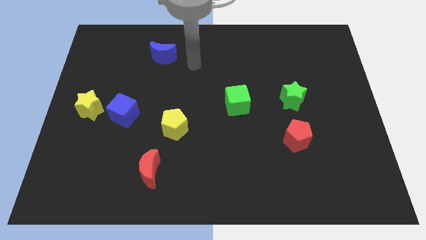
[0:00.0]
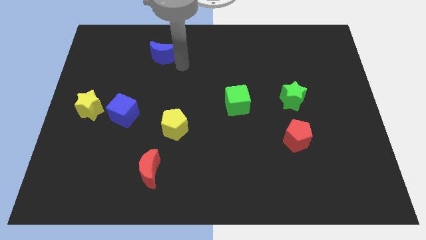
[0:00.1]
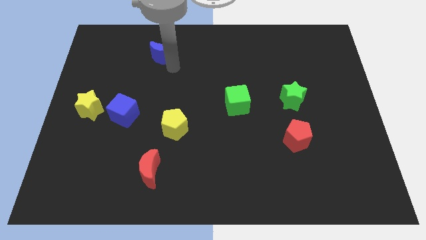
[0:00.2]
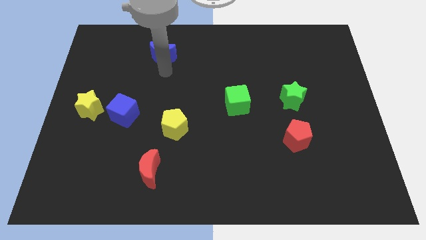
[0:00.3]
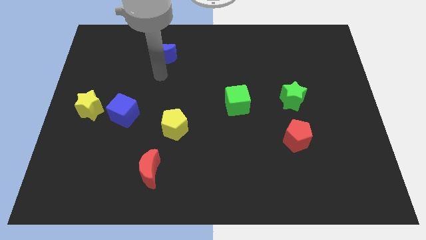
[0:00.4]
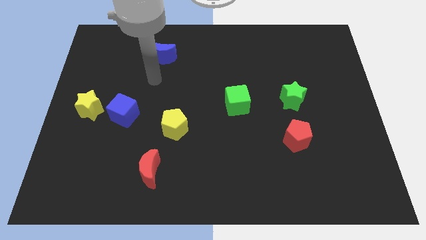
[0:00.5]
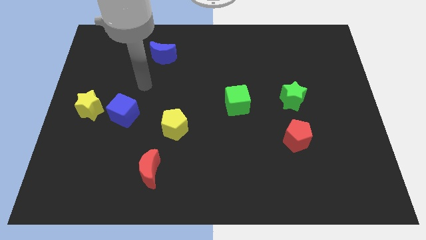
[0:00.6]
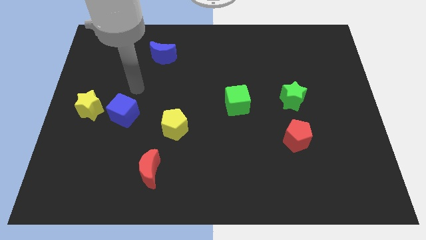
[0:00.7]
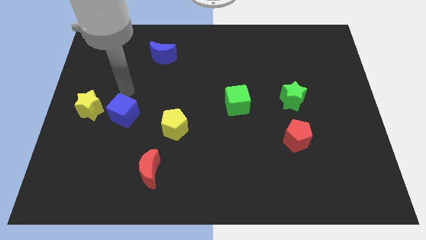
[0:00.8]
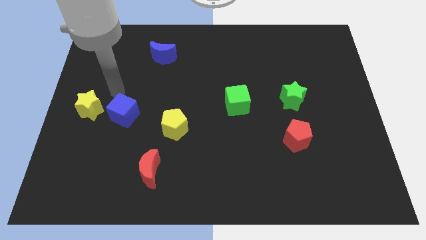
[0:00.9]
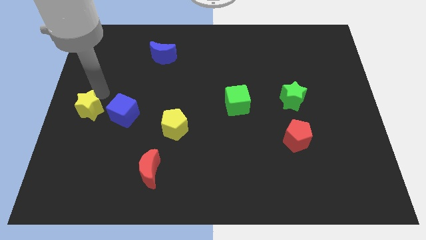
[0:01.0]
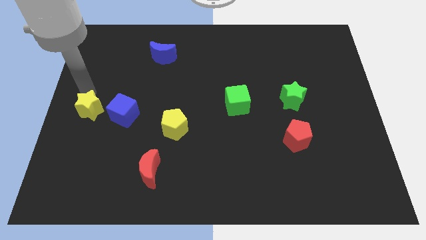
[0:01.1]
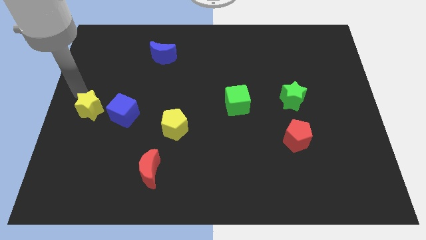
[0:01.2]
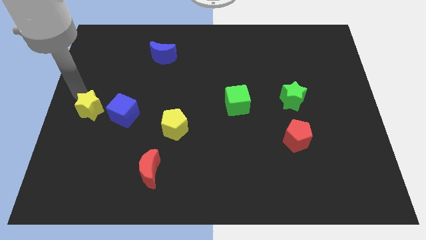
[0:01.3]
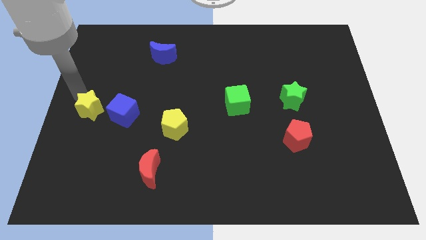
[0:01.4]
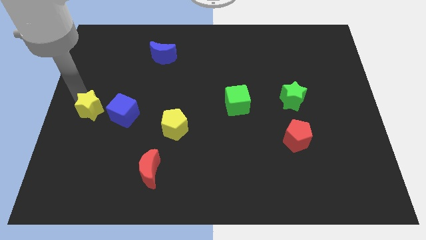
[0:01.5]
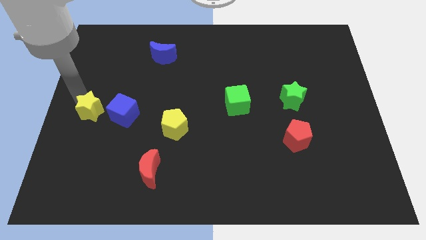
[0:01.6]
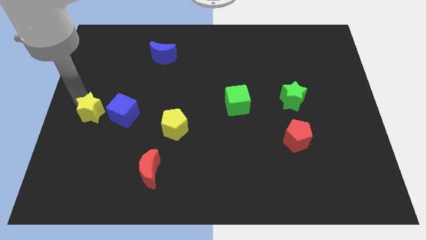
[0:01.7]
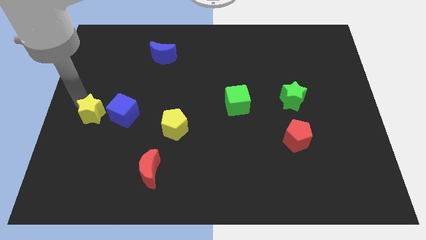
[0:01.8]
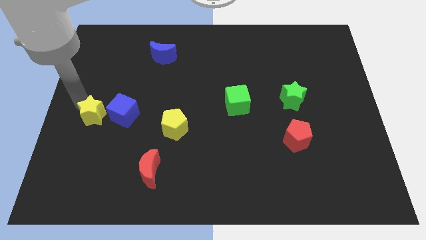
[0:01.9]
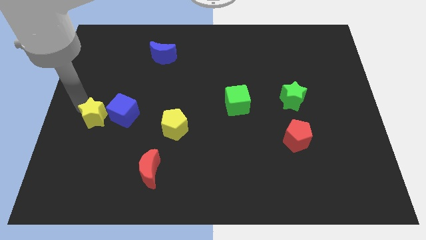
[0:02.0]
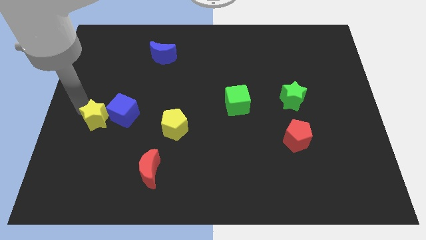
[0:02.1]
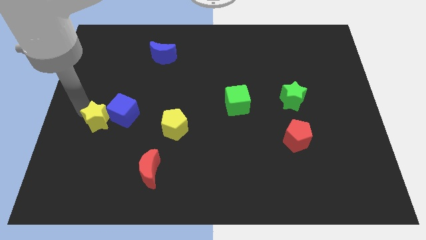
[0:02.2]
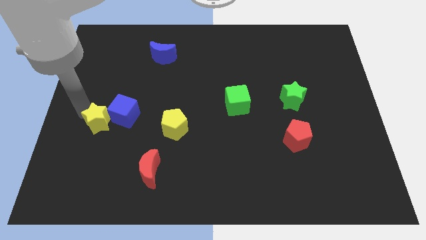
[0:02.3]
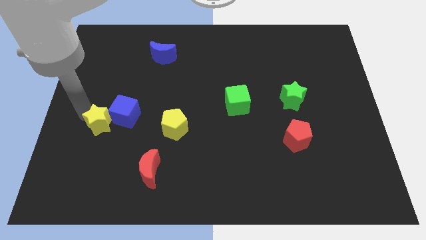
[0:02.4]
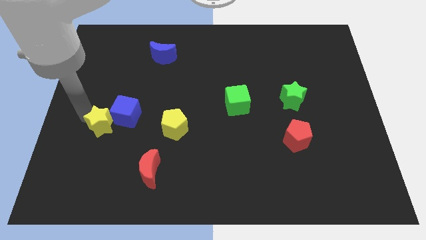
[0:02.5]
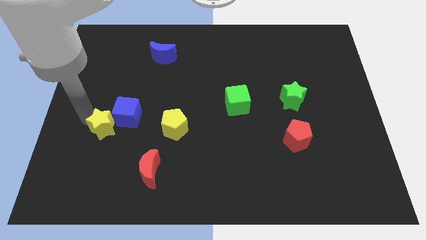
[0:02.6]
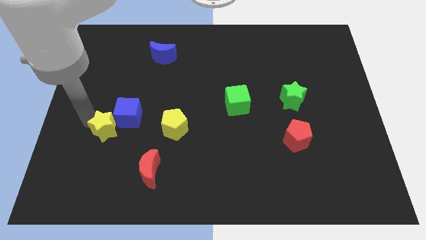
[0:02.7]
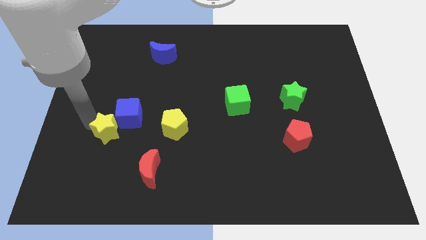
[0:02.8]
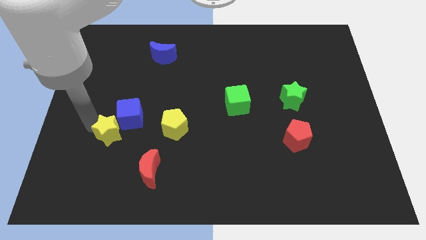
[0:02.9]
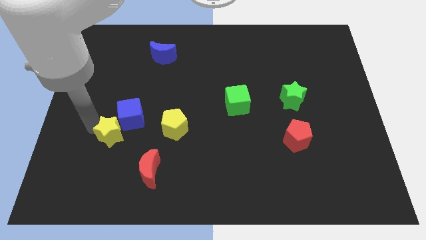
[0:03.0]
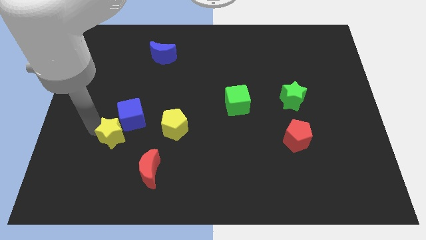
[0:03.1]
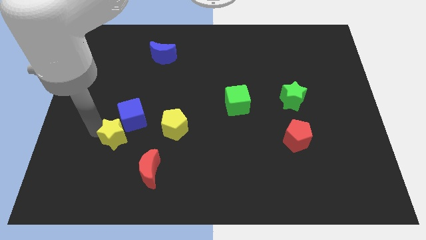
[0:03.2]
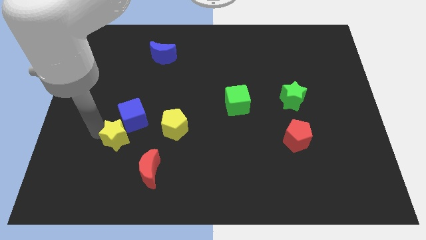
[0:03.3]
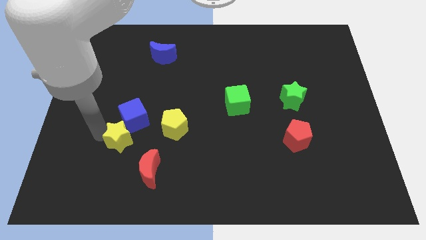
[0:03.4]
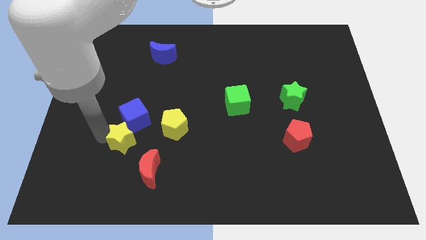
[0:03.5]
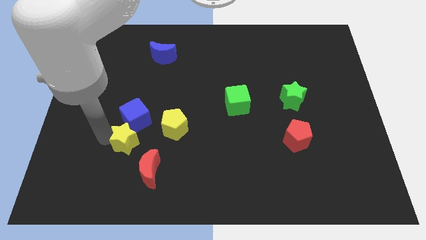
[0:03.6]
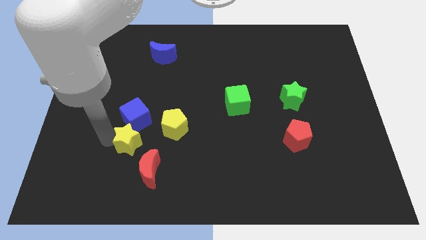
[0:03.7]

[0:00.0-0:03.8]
put the yellow star to the bottom left side of the yellow pentagon

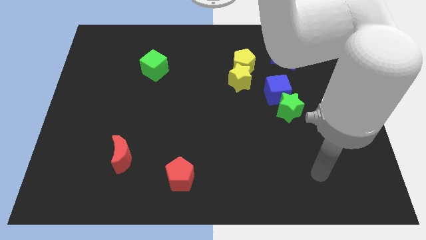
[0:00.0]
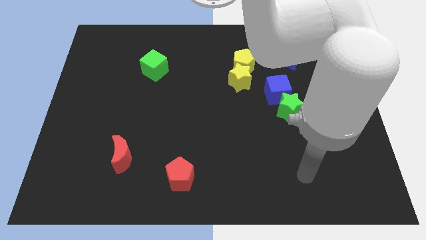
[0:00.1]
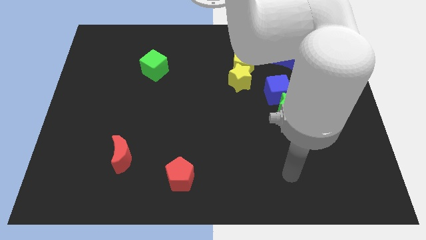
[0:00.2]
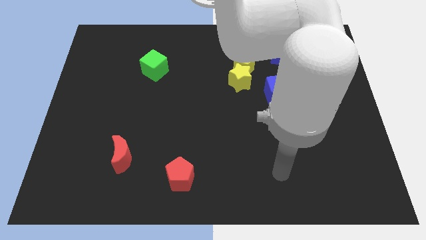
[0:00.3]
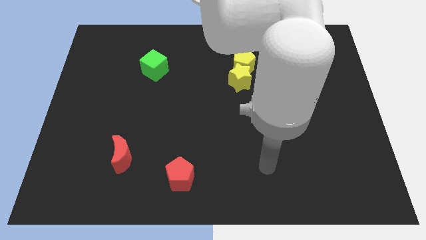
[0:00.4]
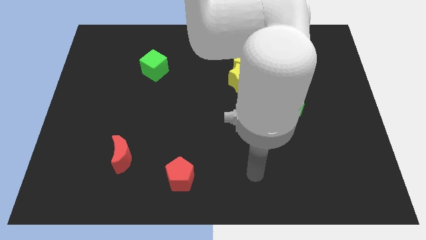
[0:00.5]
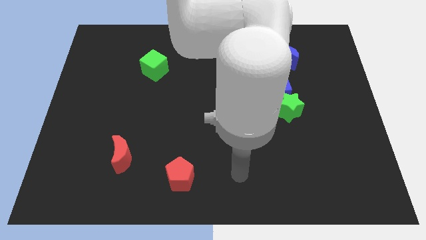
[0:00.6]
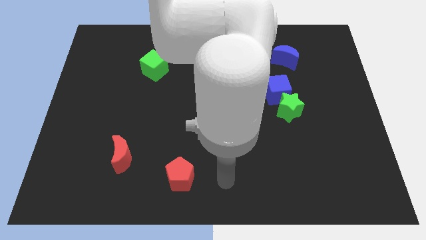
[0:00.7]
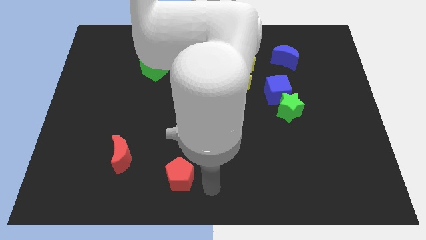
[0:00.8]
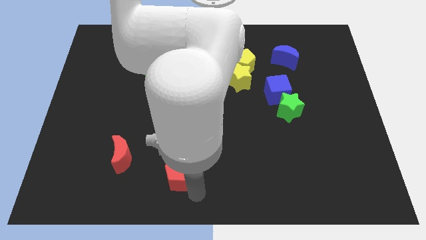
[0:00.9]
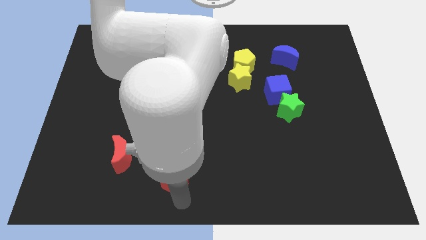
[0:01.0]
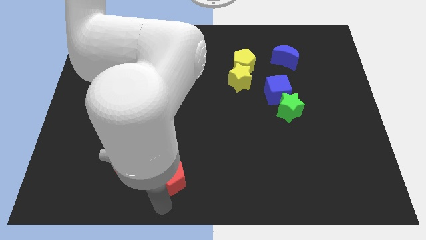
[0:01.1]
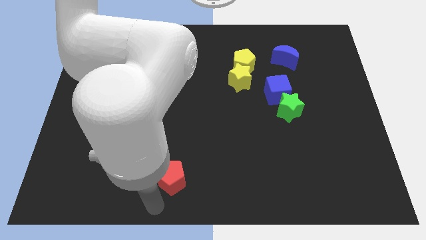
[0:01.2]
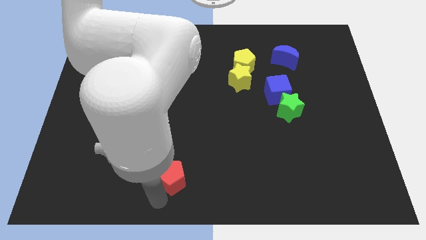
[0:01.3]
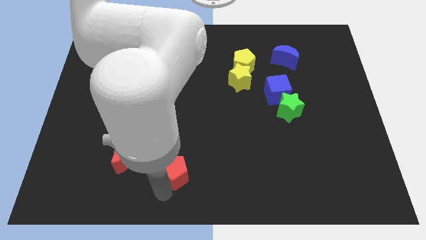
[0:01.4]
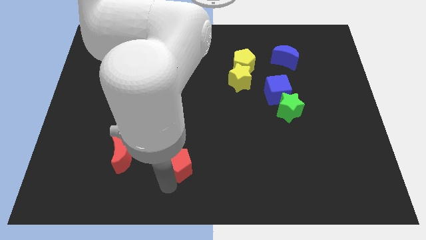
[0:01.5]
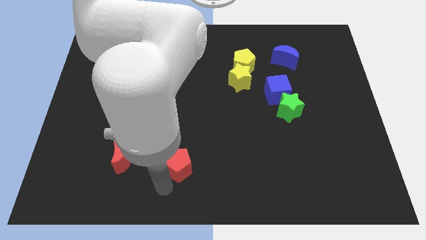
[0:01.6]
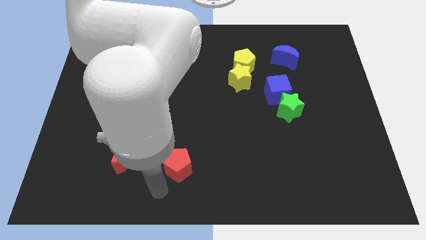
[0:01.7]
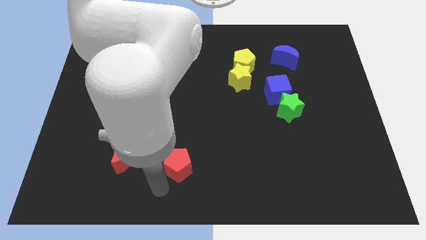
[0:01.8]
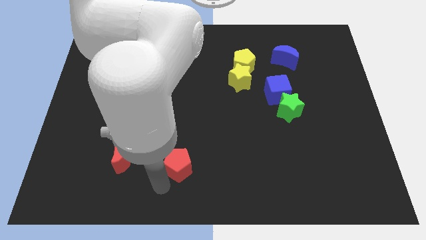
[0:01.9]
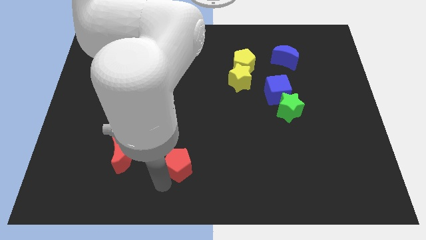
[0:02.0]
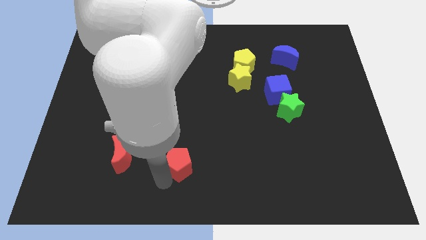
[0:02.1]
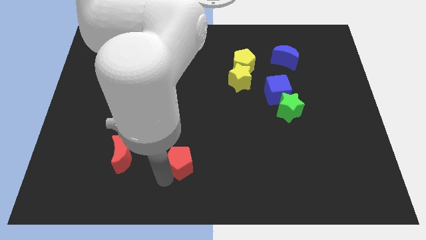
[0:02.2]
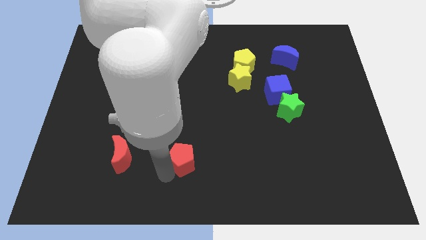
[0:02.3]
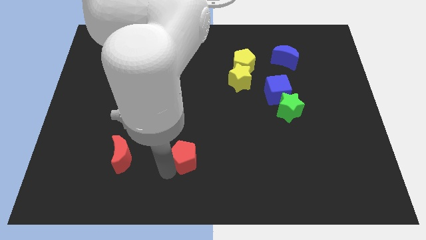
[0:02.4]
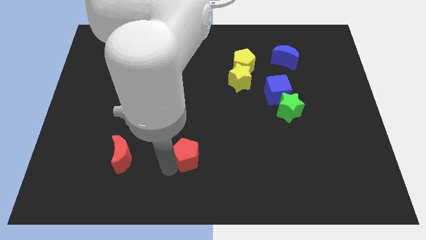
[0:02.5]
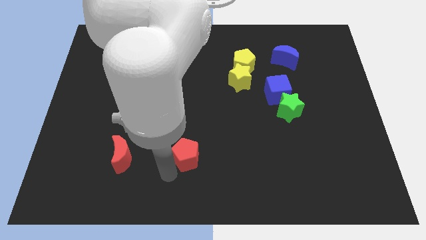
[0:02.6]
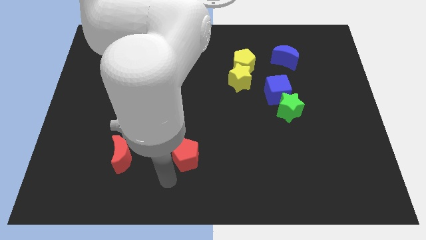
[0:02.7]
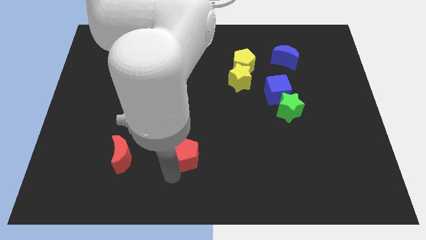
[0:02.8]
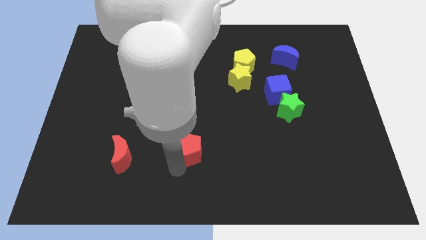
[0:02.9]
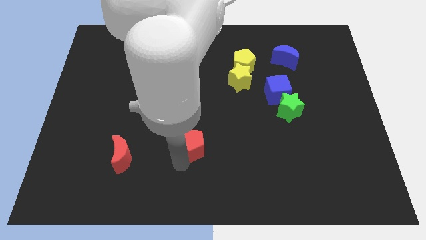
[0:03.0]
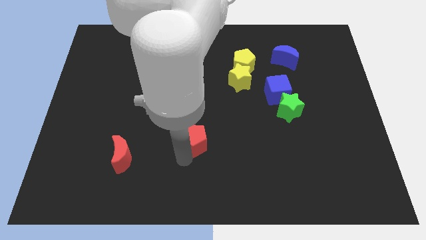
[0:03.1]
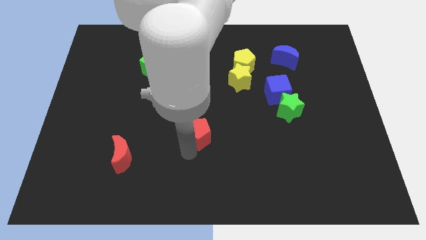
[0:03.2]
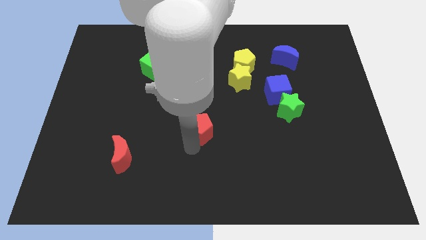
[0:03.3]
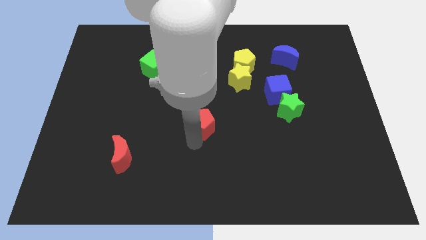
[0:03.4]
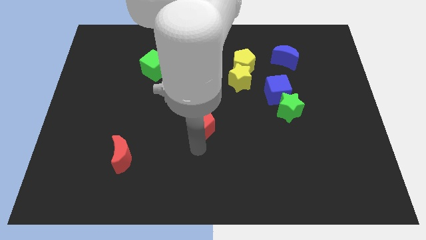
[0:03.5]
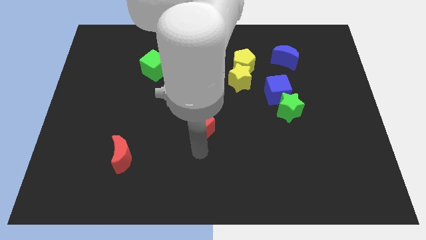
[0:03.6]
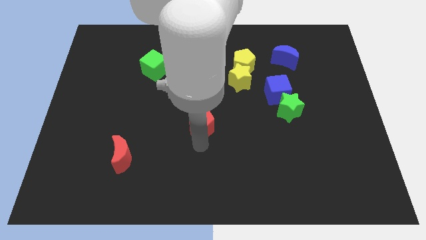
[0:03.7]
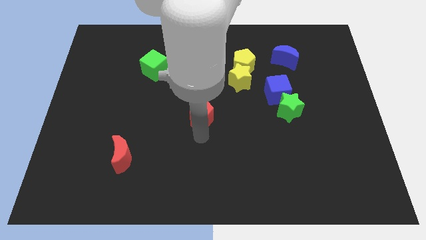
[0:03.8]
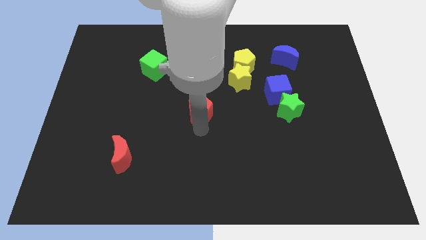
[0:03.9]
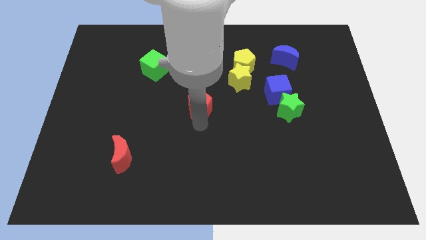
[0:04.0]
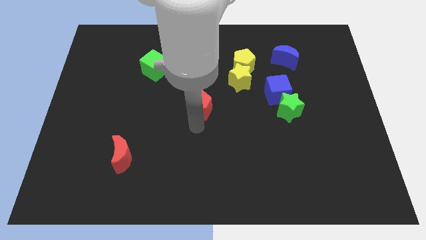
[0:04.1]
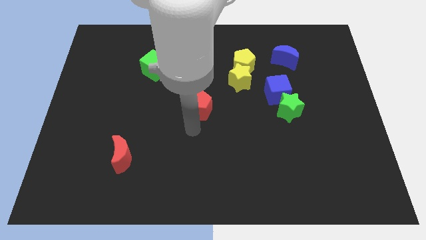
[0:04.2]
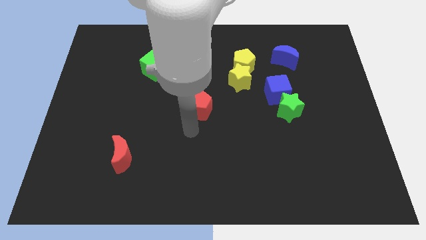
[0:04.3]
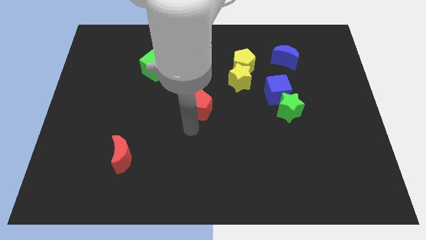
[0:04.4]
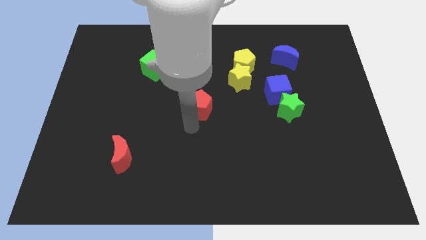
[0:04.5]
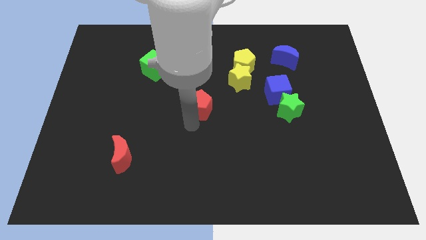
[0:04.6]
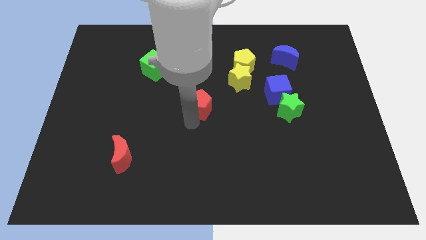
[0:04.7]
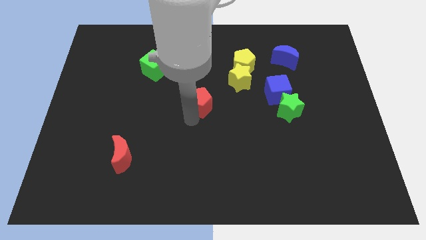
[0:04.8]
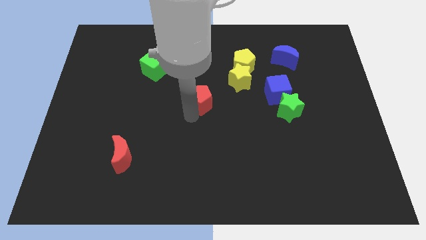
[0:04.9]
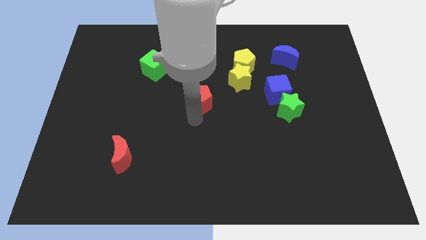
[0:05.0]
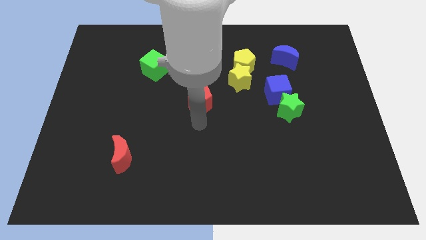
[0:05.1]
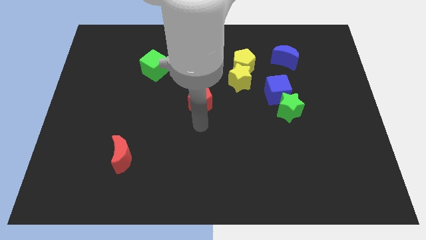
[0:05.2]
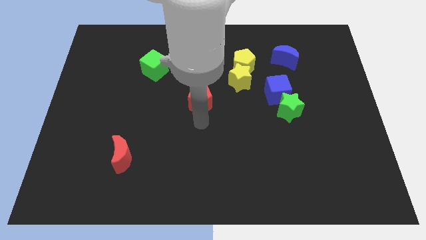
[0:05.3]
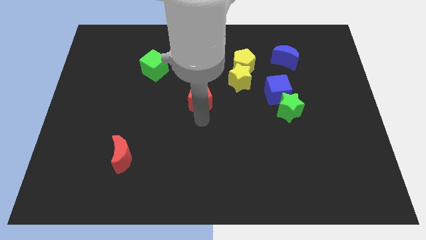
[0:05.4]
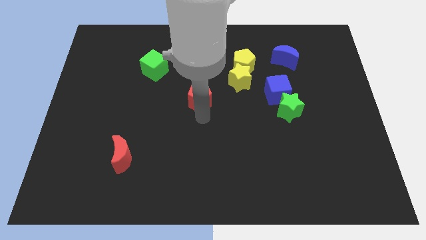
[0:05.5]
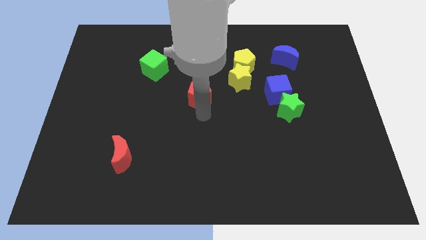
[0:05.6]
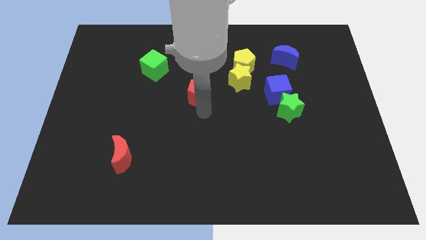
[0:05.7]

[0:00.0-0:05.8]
move the red pentagon just left of the yellow star
